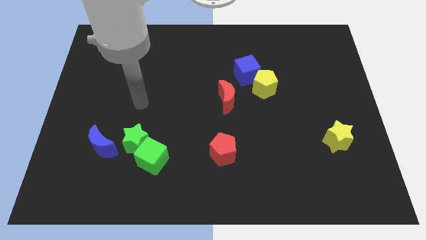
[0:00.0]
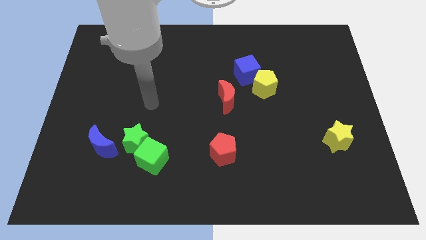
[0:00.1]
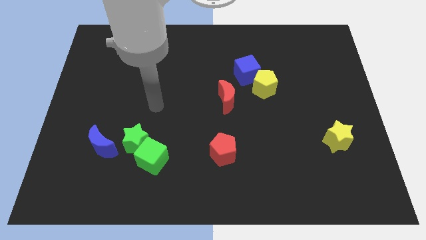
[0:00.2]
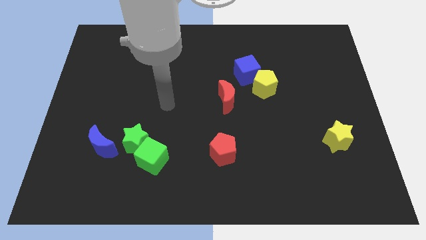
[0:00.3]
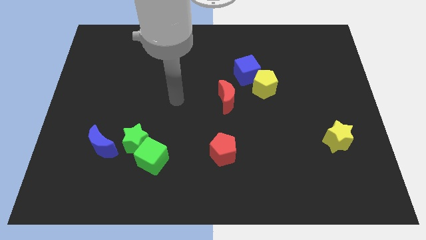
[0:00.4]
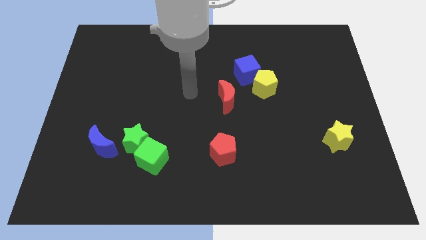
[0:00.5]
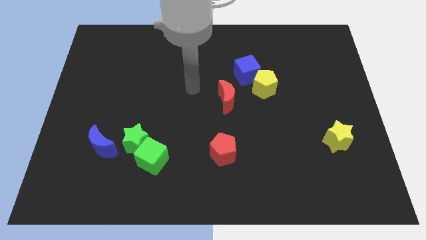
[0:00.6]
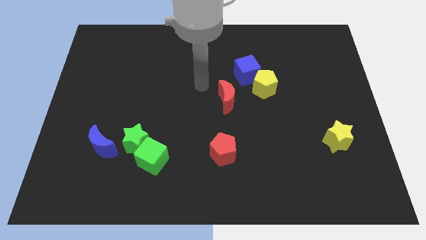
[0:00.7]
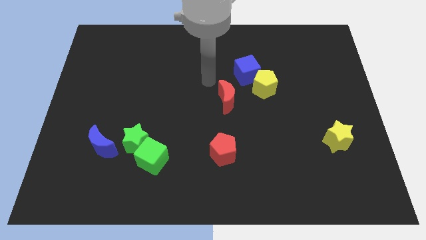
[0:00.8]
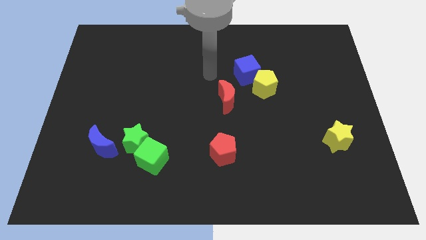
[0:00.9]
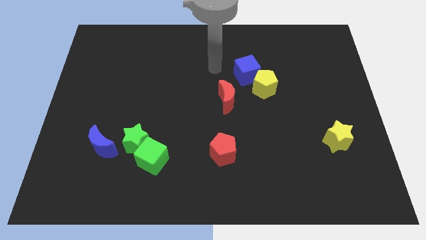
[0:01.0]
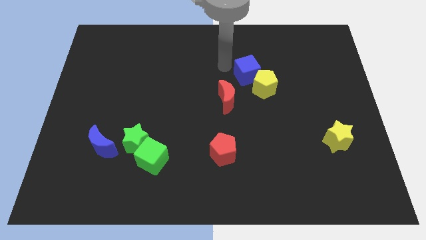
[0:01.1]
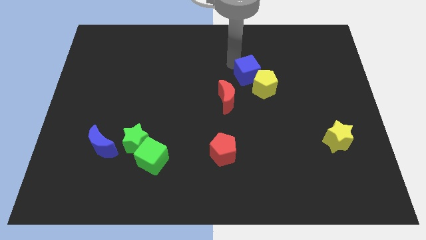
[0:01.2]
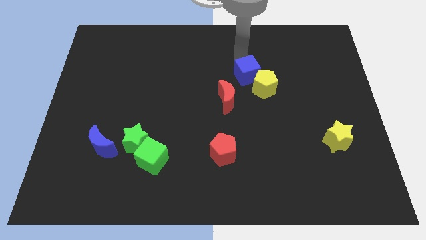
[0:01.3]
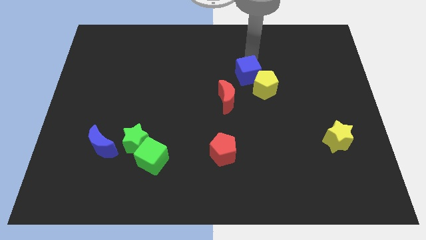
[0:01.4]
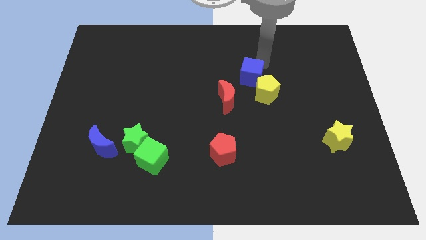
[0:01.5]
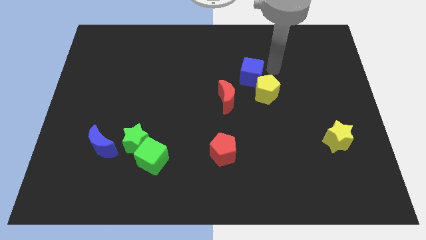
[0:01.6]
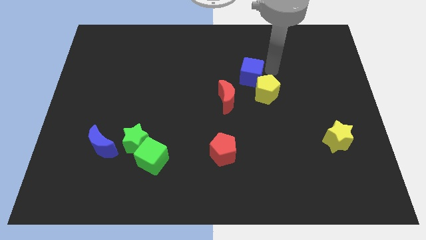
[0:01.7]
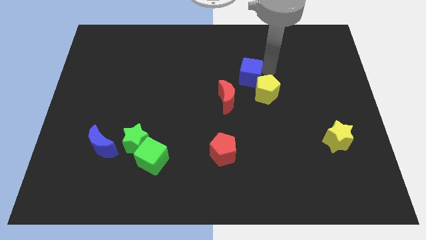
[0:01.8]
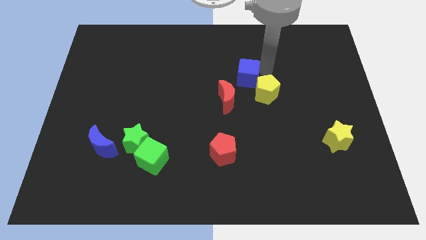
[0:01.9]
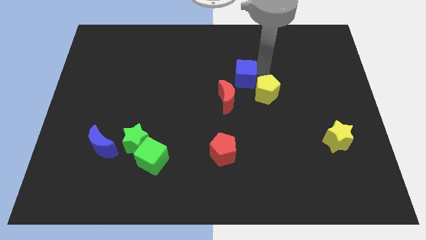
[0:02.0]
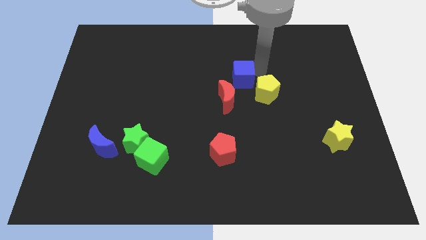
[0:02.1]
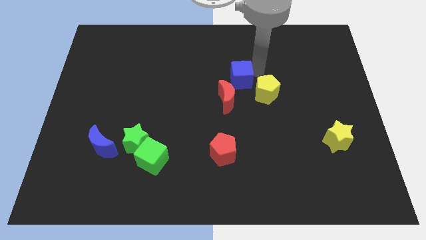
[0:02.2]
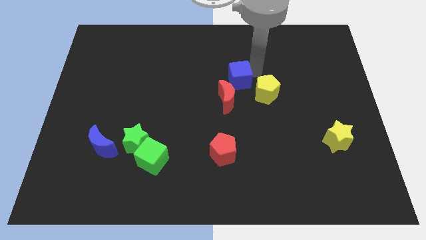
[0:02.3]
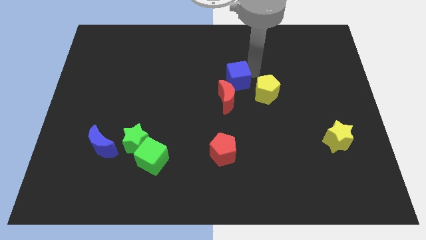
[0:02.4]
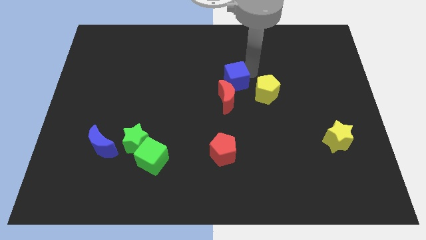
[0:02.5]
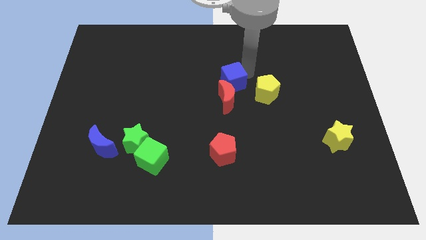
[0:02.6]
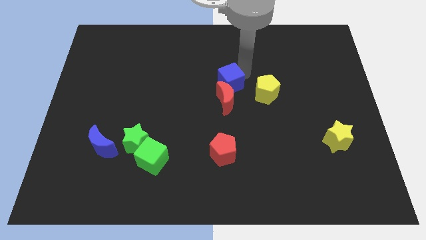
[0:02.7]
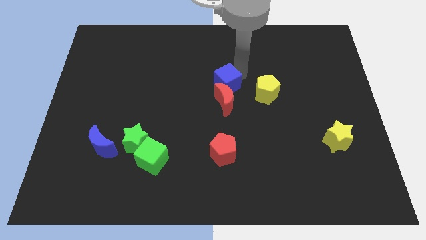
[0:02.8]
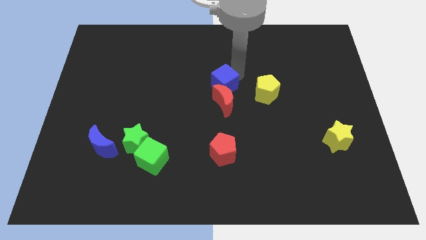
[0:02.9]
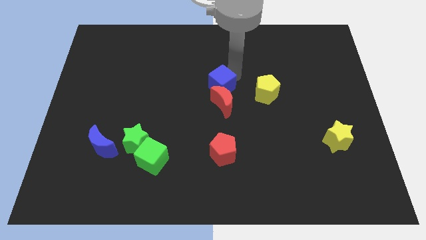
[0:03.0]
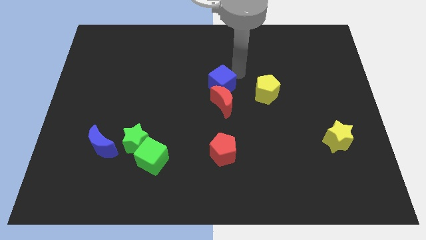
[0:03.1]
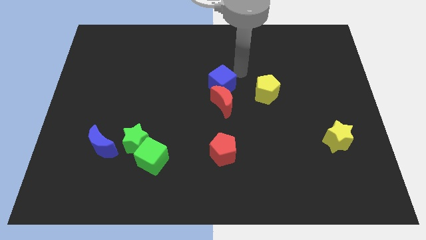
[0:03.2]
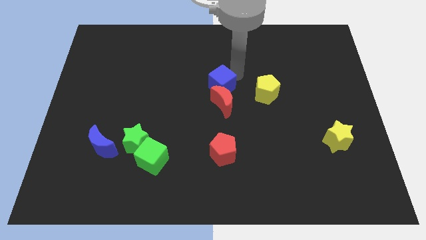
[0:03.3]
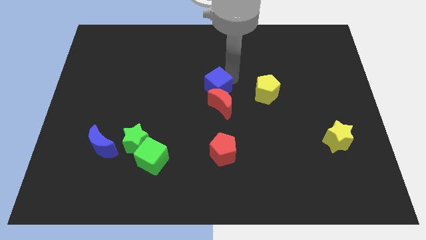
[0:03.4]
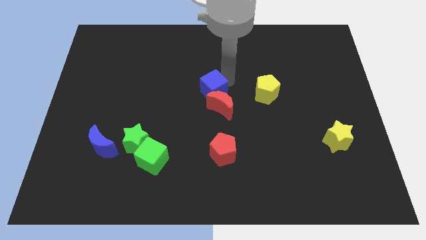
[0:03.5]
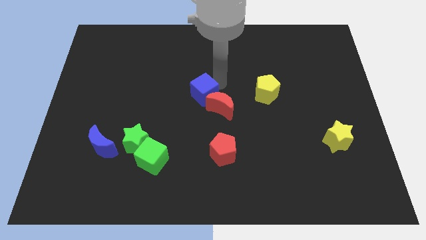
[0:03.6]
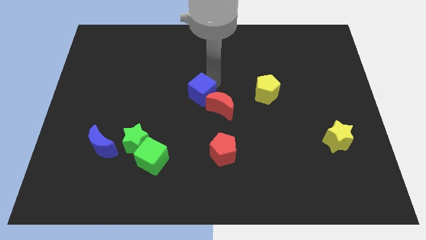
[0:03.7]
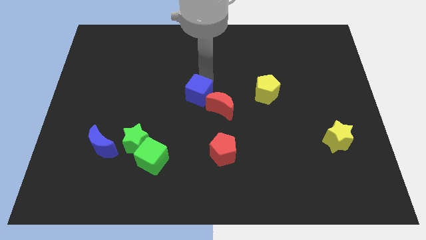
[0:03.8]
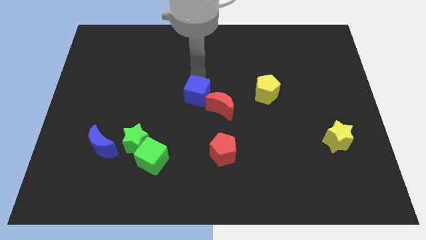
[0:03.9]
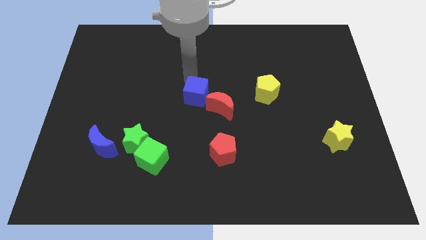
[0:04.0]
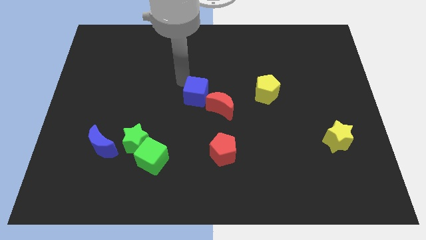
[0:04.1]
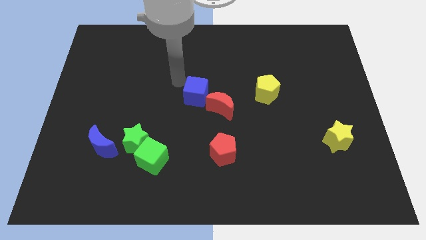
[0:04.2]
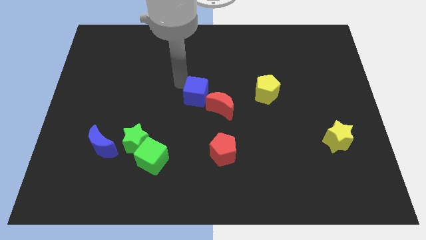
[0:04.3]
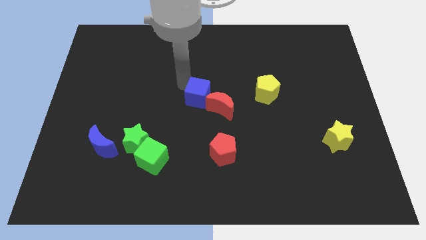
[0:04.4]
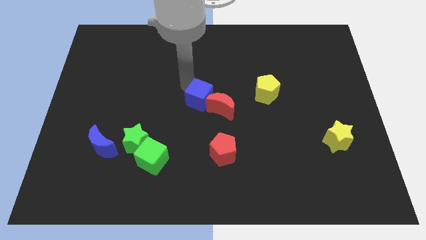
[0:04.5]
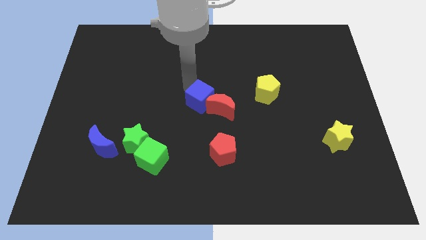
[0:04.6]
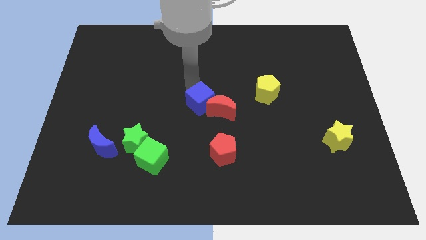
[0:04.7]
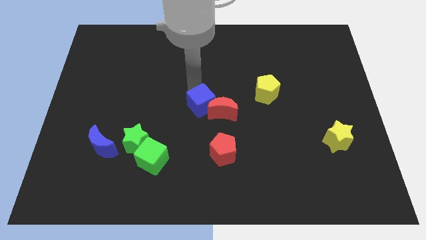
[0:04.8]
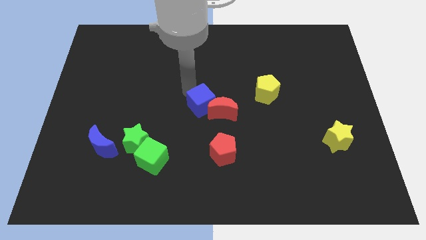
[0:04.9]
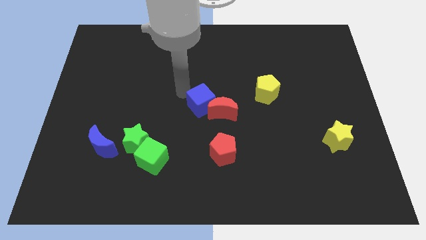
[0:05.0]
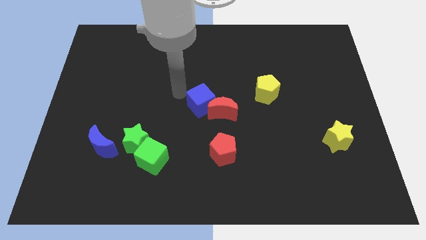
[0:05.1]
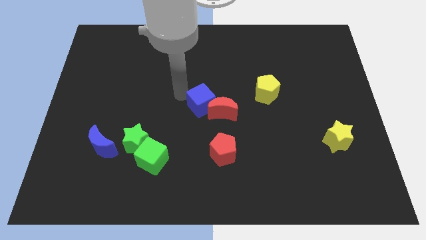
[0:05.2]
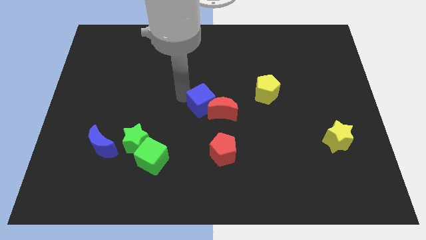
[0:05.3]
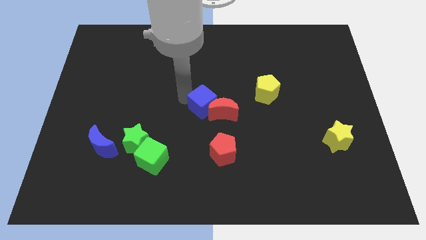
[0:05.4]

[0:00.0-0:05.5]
move the blue cube to the top side of the red pentagon

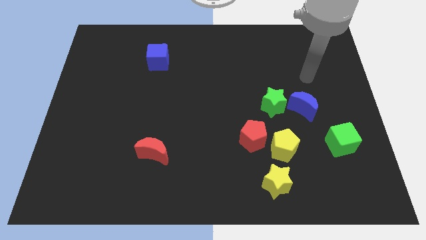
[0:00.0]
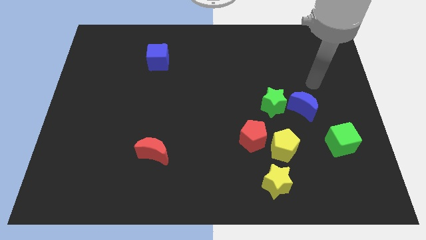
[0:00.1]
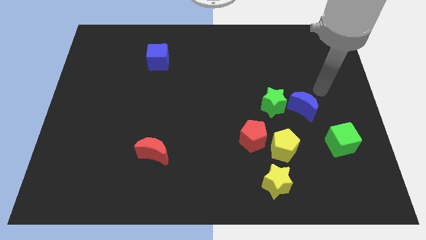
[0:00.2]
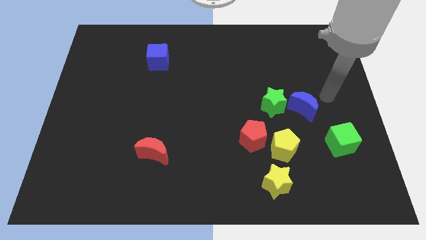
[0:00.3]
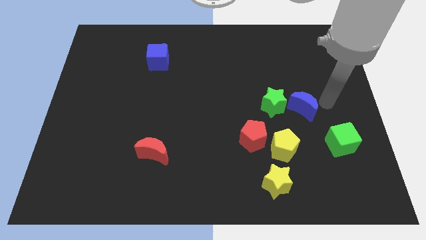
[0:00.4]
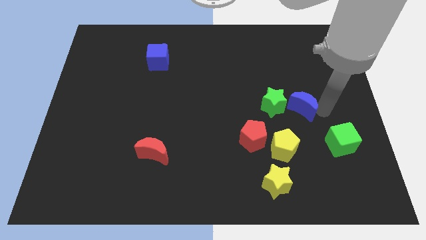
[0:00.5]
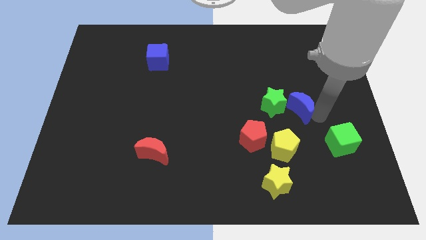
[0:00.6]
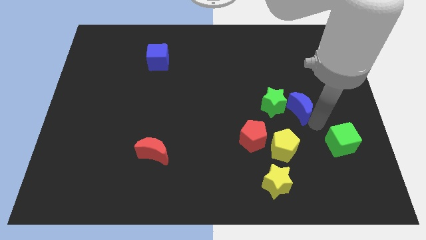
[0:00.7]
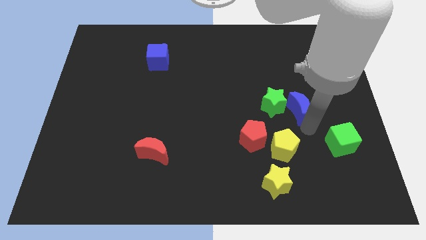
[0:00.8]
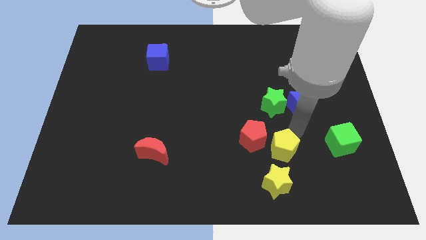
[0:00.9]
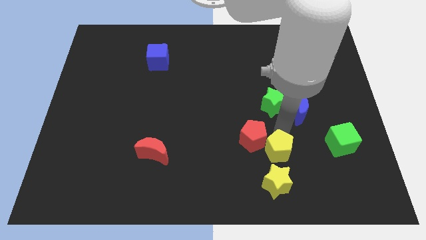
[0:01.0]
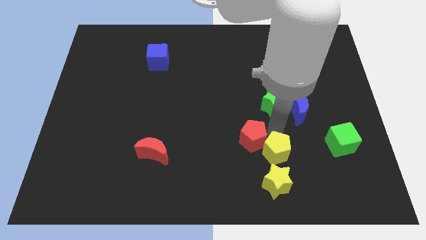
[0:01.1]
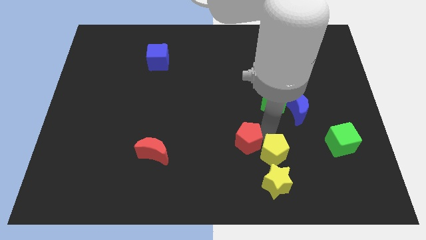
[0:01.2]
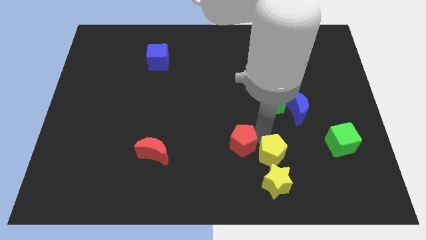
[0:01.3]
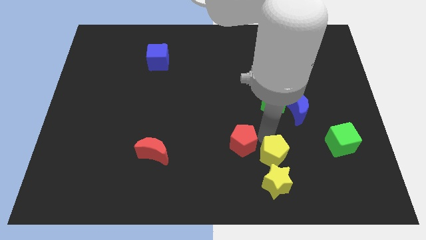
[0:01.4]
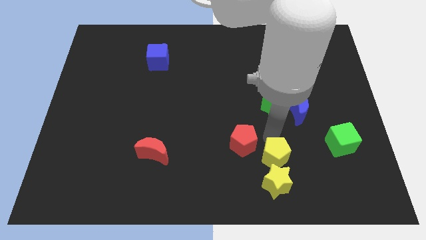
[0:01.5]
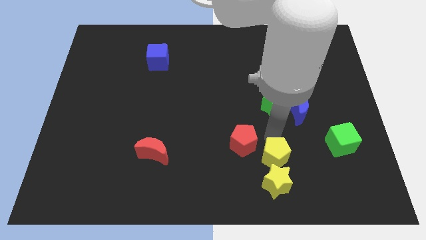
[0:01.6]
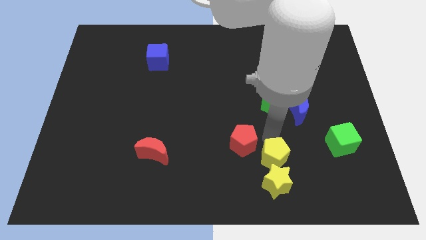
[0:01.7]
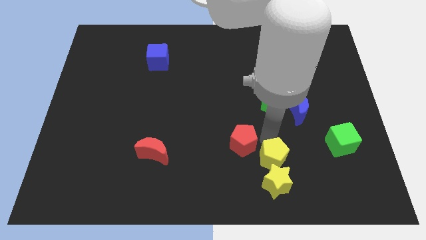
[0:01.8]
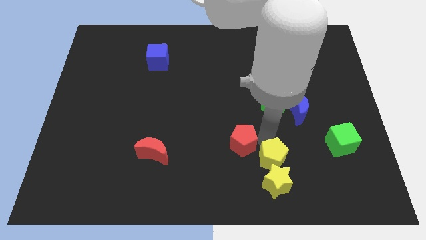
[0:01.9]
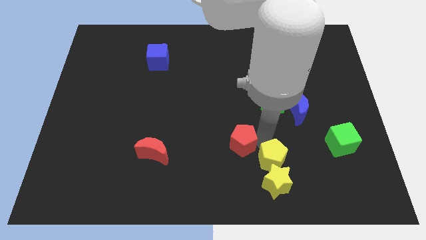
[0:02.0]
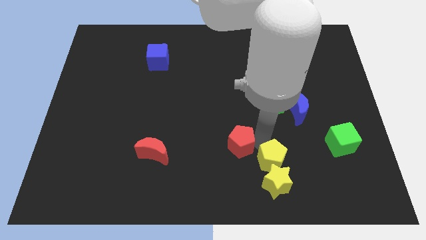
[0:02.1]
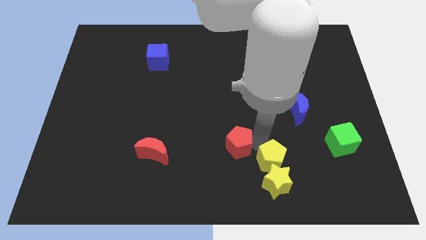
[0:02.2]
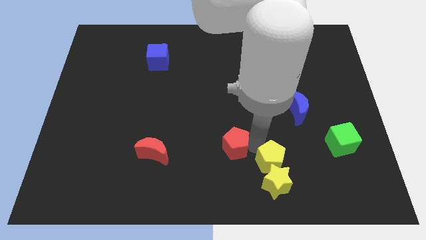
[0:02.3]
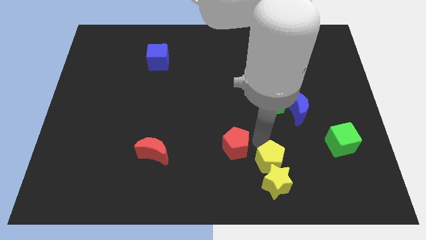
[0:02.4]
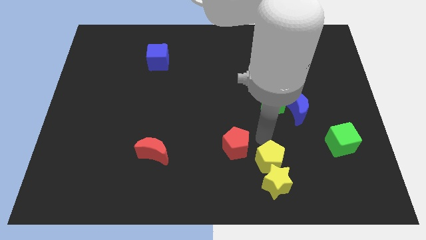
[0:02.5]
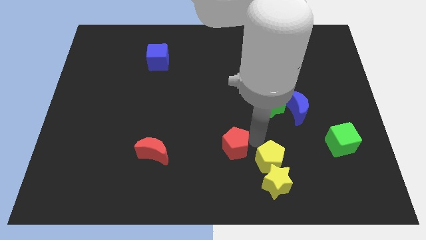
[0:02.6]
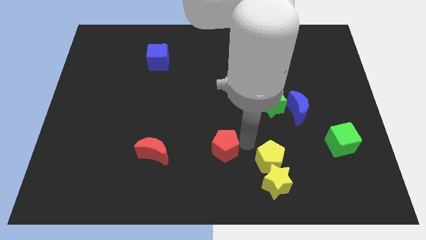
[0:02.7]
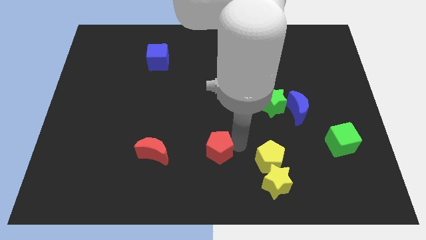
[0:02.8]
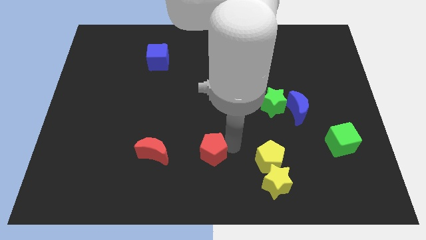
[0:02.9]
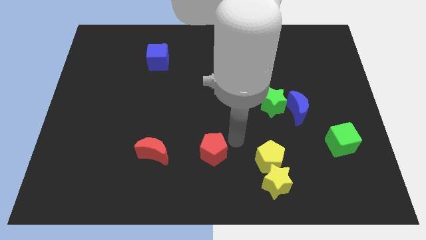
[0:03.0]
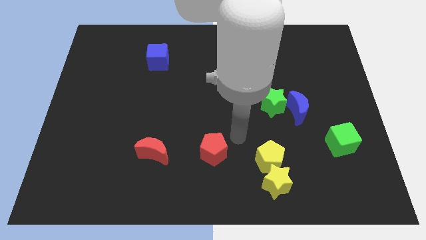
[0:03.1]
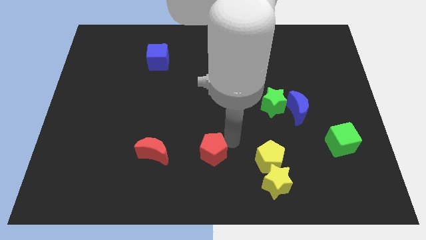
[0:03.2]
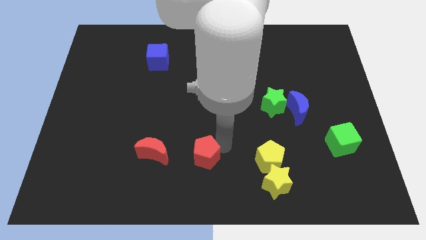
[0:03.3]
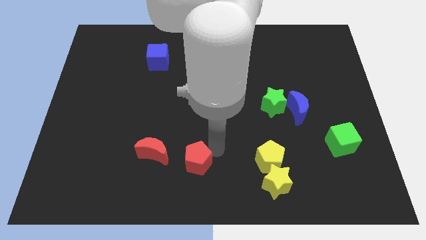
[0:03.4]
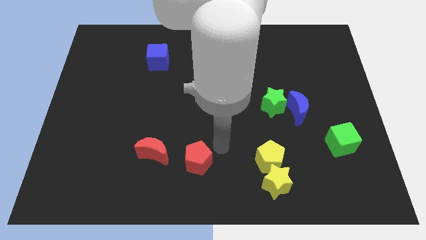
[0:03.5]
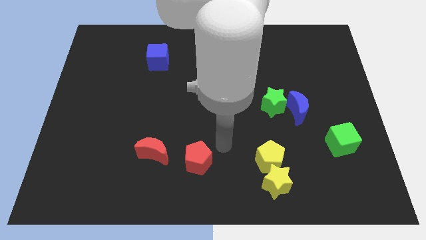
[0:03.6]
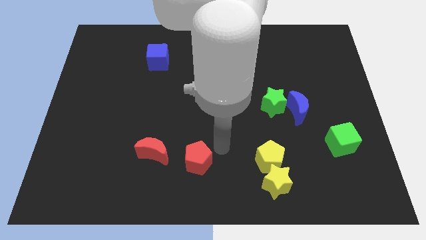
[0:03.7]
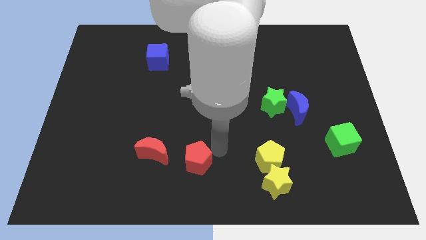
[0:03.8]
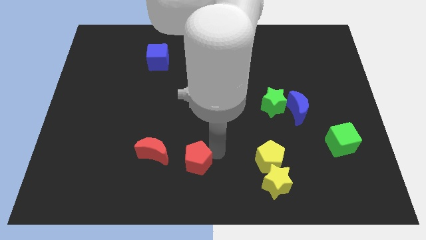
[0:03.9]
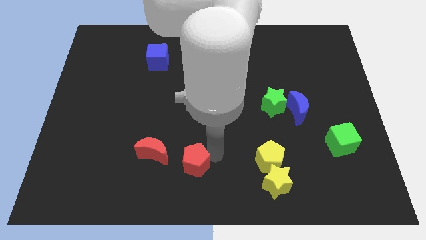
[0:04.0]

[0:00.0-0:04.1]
move the red pentagon to the bottom right of the red moon
